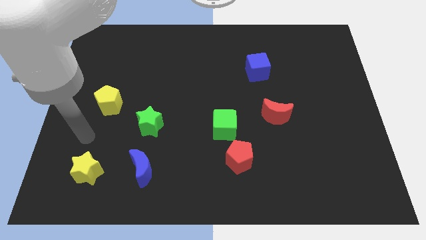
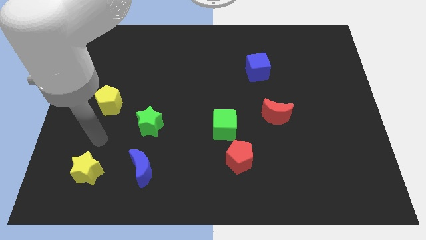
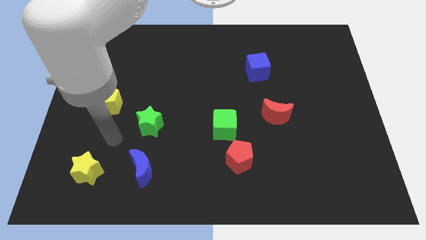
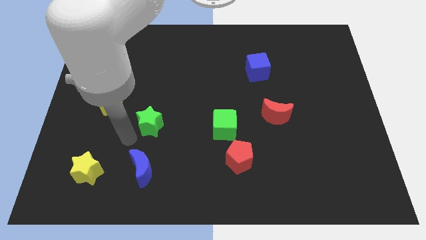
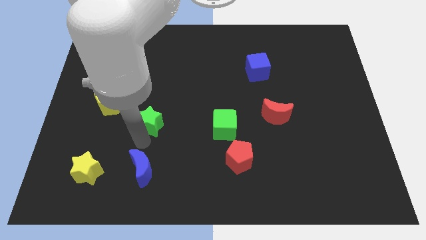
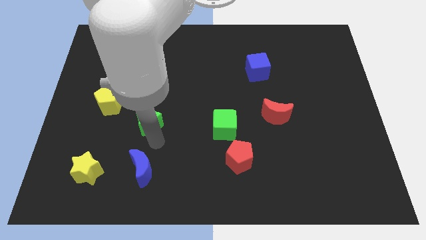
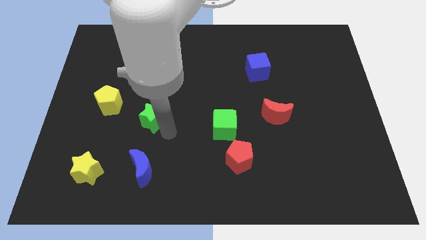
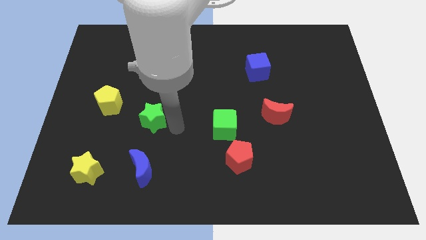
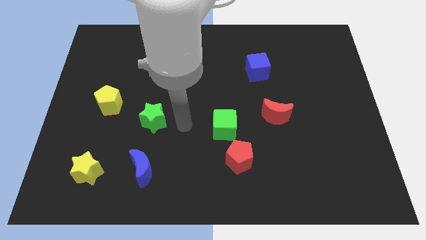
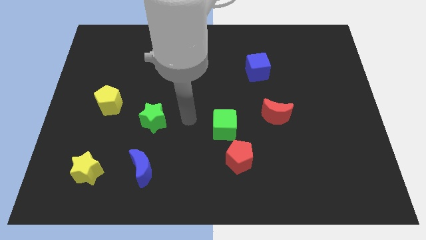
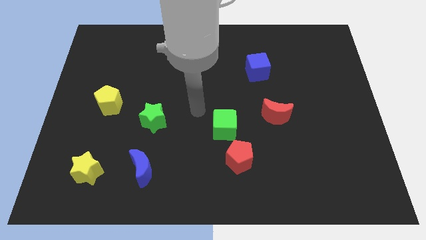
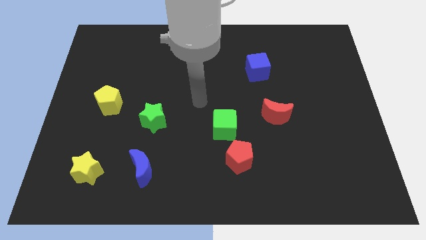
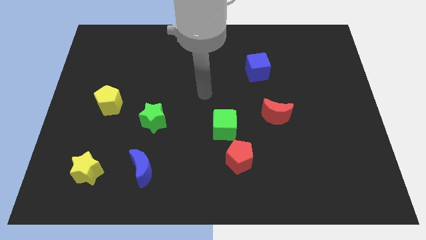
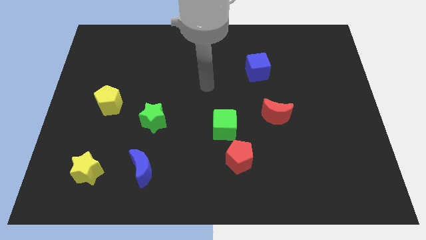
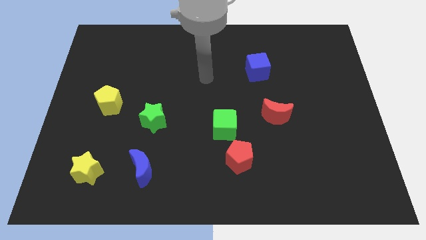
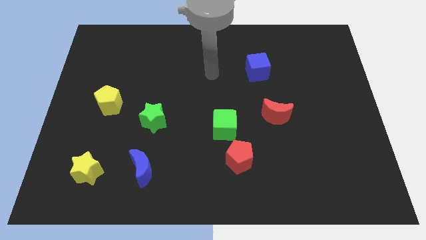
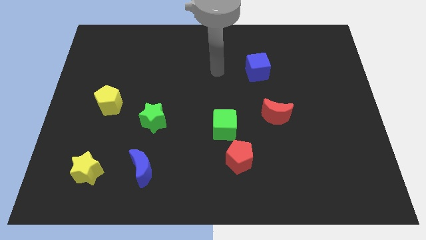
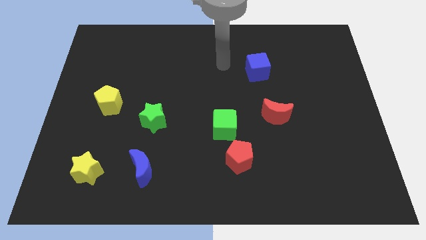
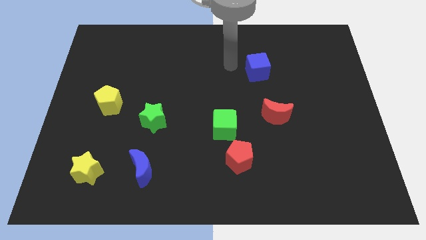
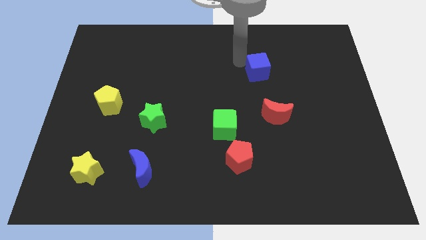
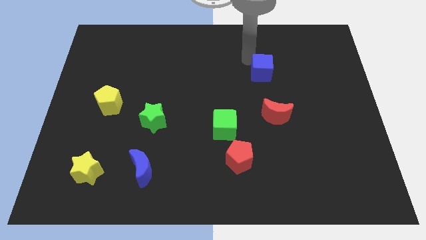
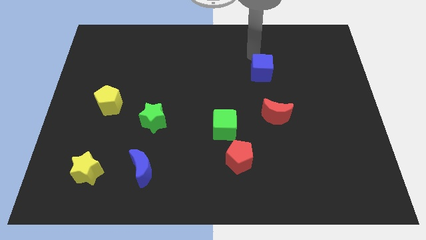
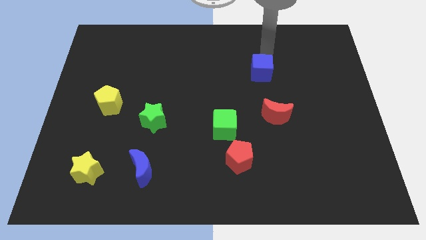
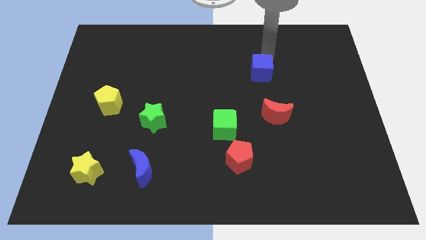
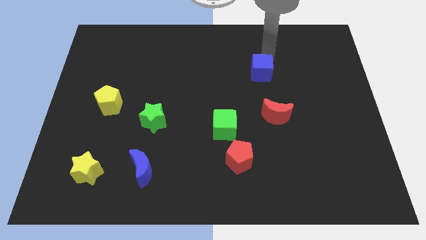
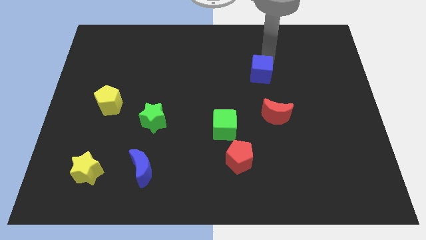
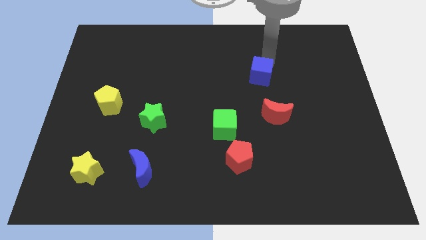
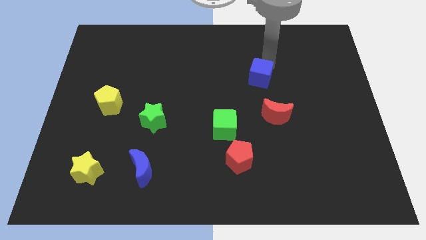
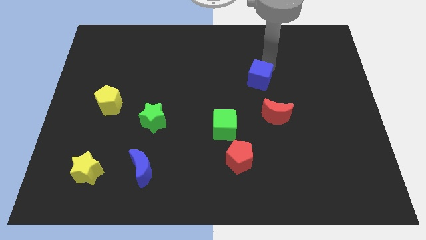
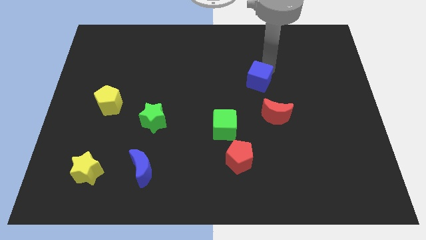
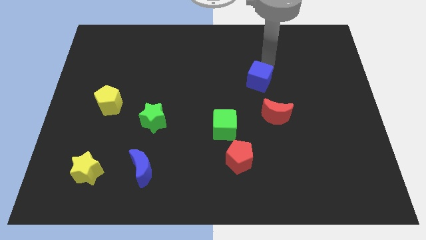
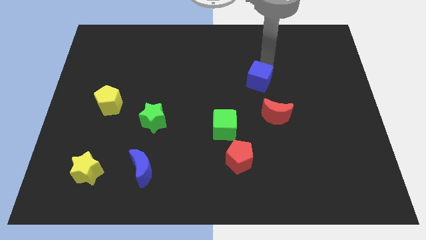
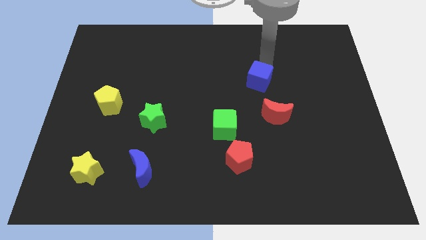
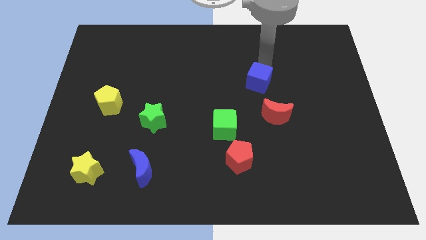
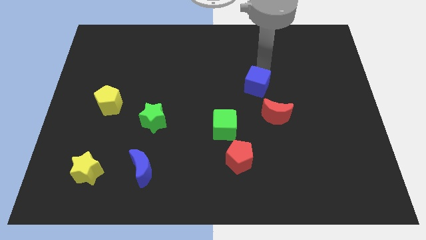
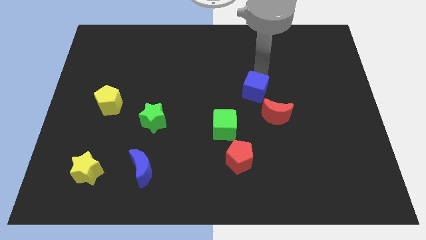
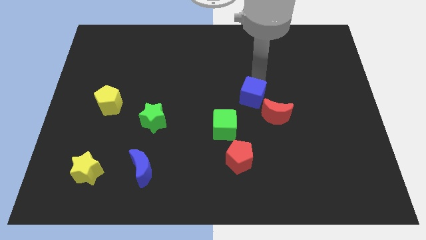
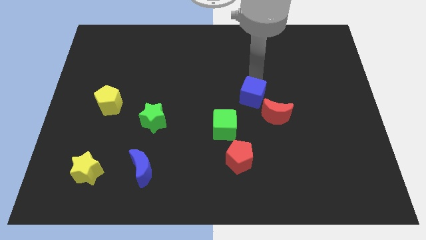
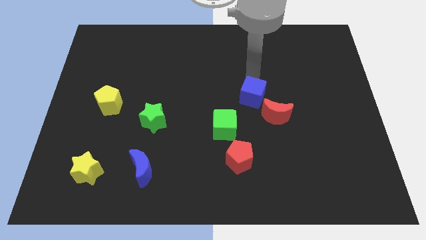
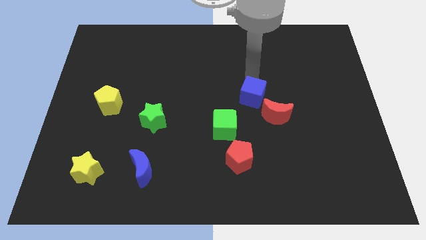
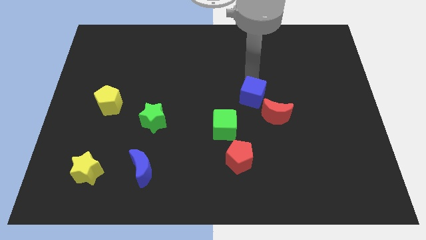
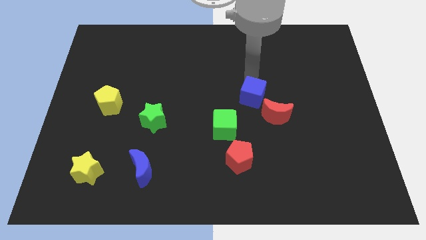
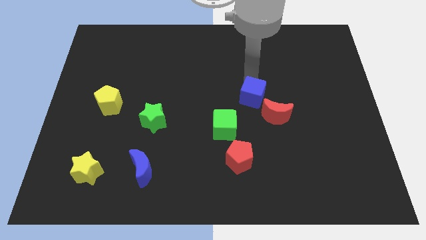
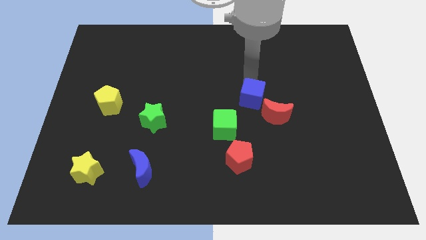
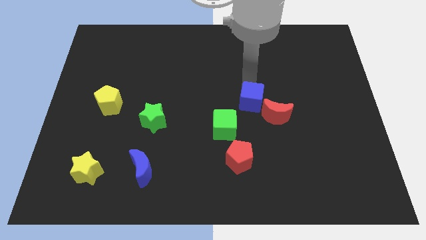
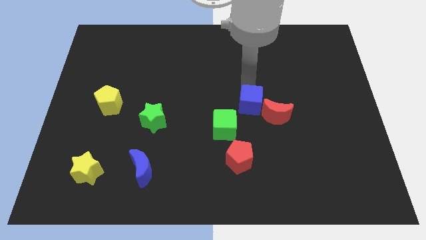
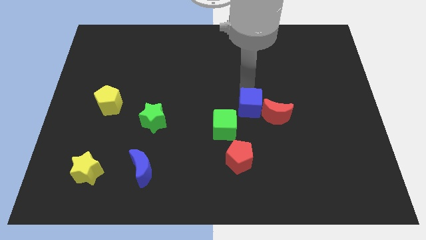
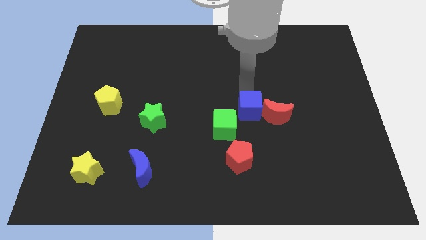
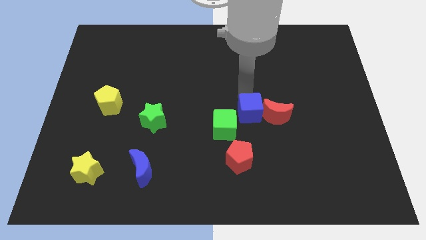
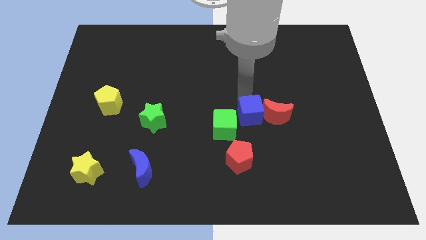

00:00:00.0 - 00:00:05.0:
move the blue cube diagonally down and to the left of the red moon

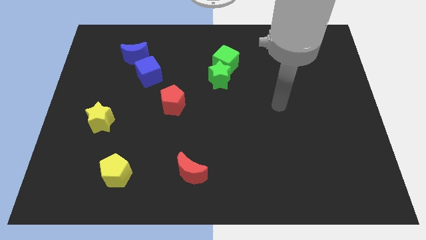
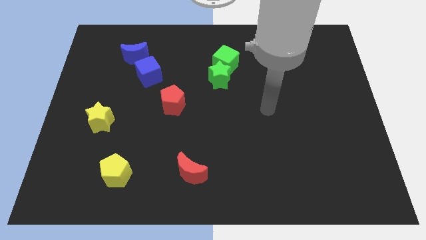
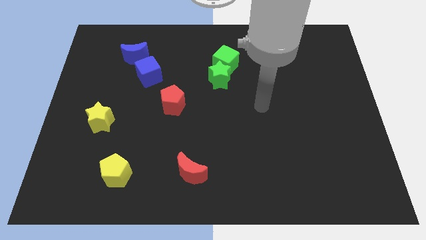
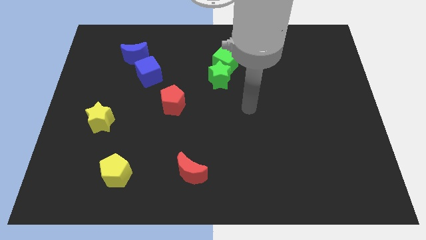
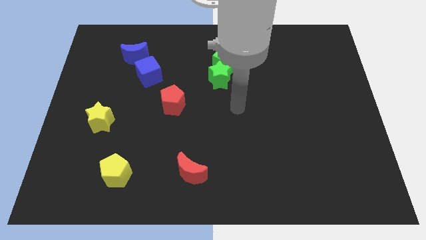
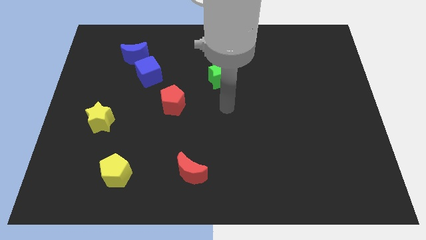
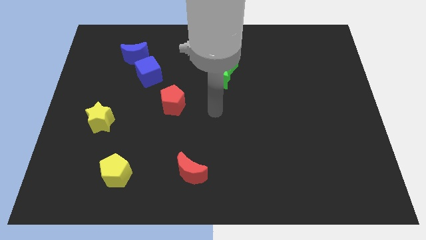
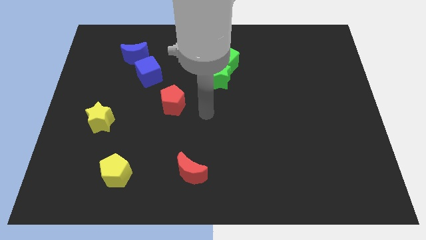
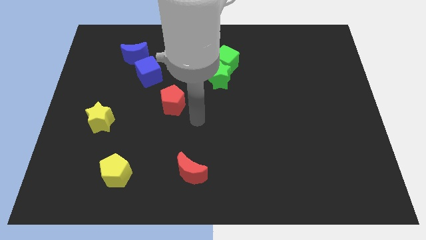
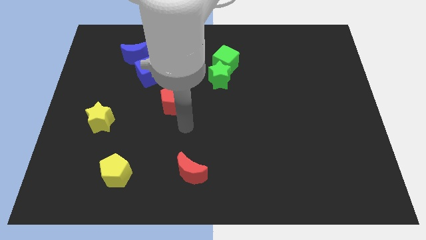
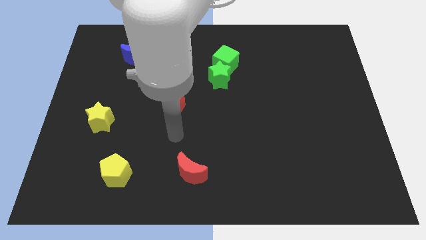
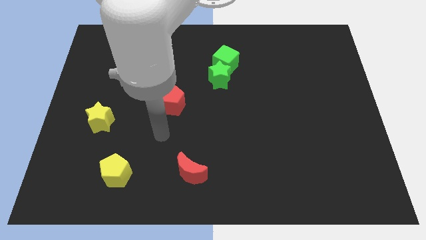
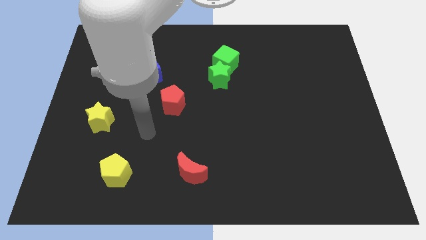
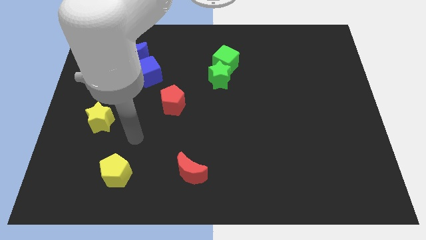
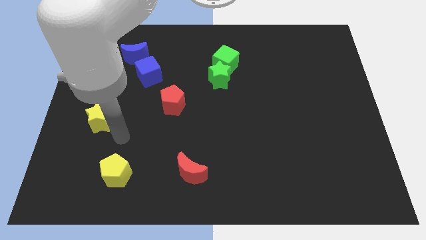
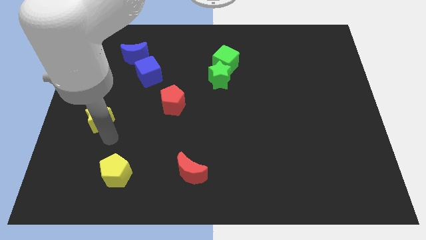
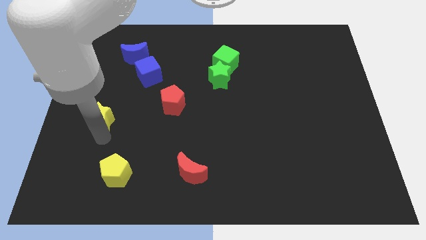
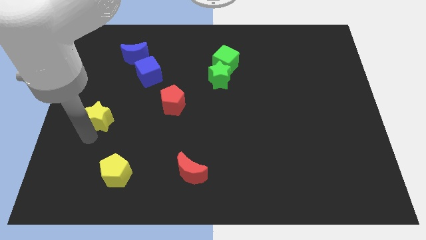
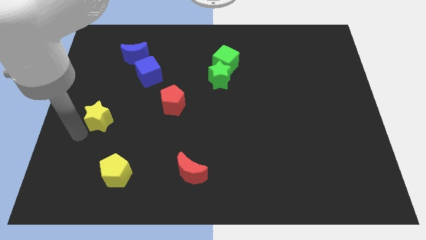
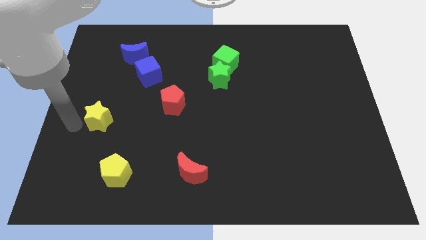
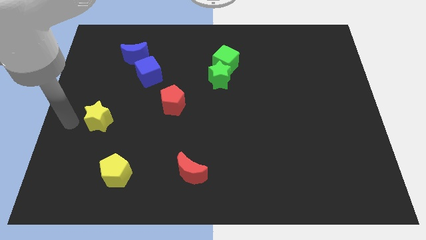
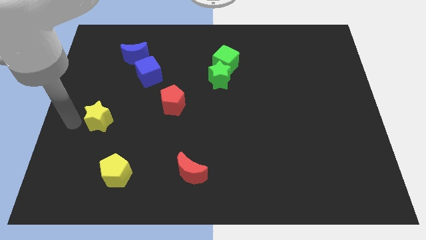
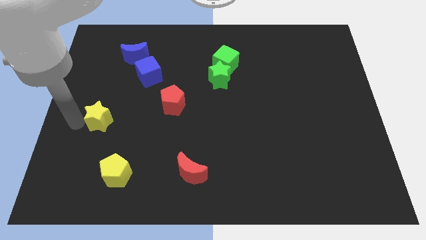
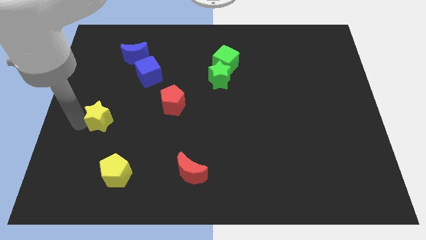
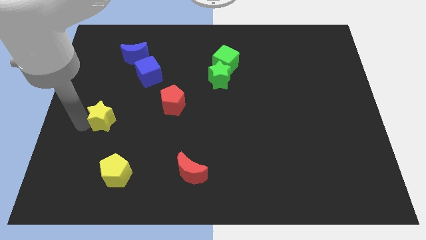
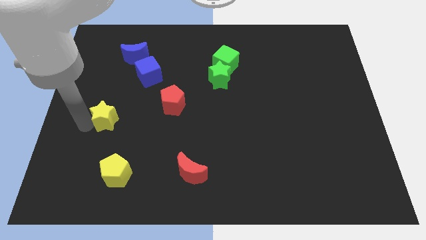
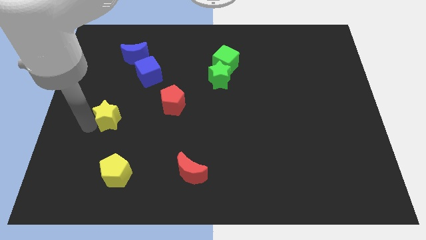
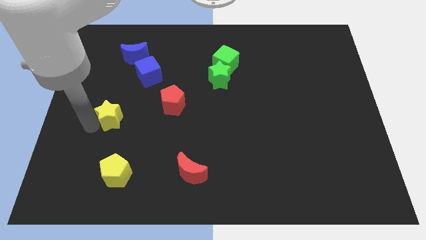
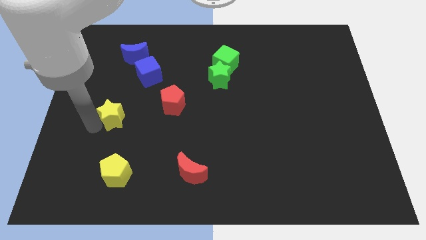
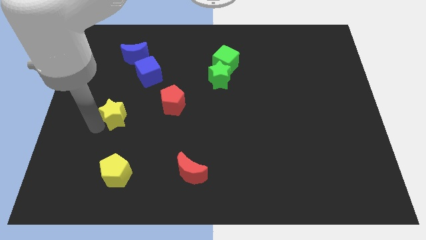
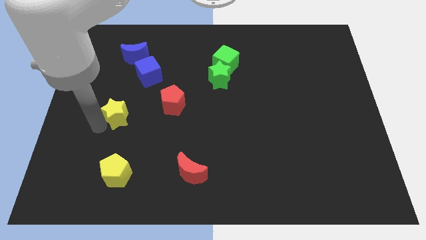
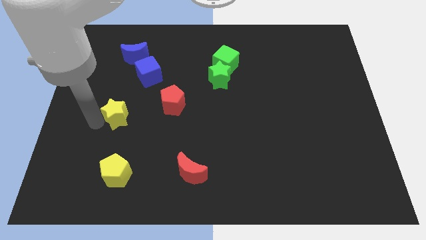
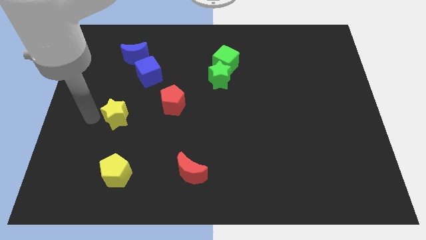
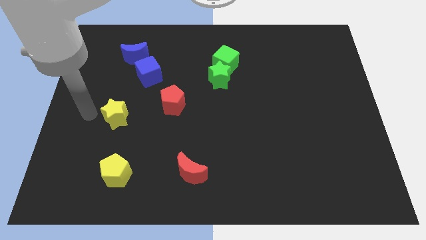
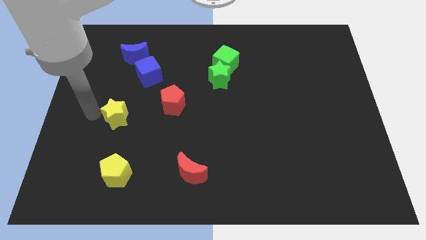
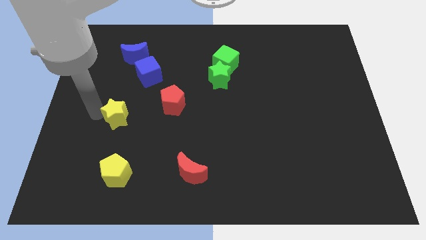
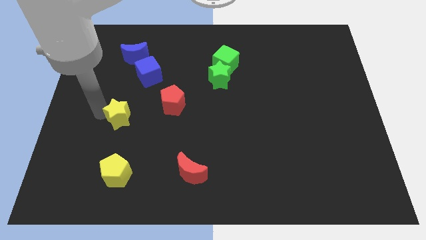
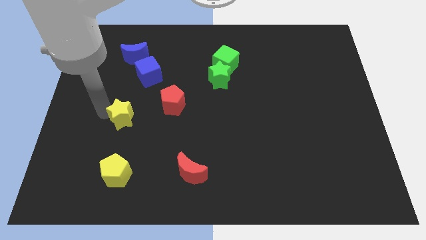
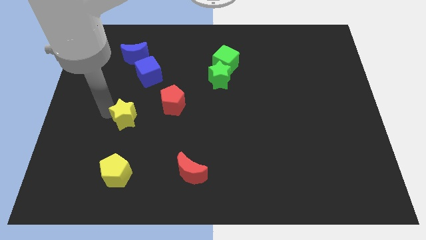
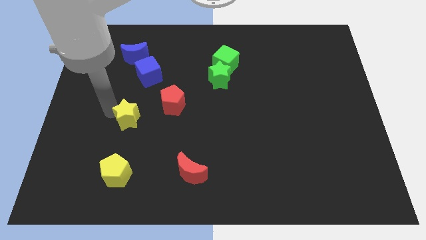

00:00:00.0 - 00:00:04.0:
move the yellow star to the bottom left of the red pentagon

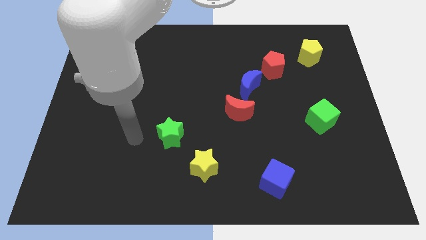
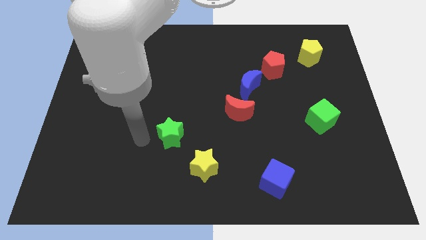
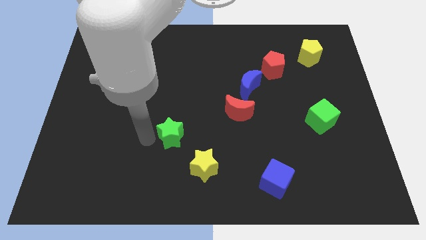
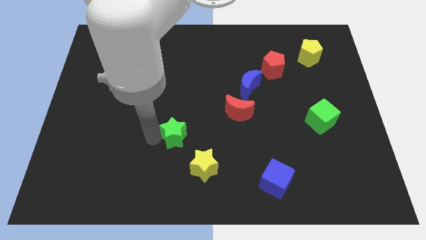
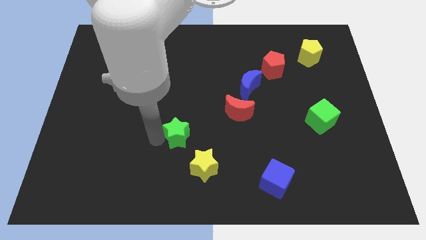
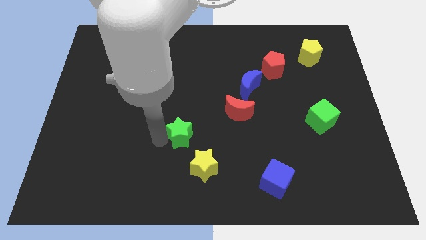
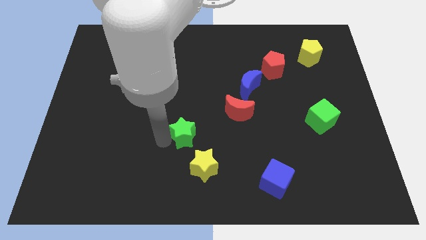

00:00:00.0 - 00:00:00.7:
put the green star above the yellow star
